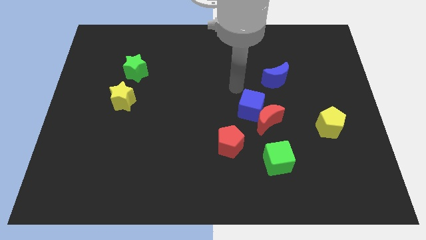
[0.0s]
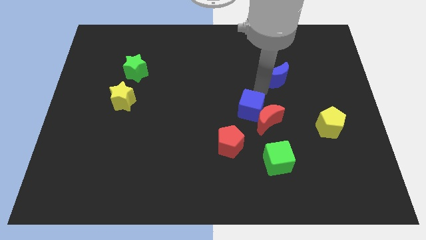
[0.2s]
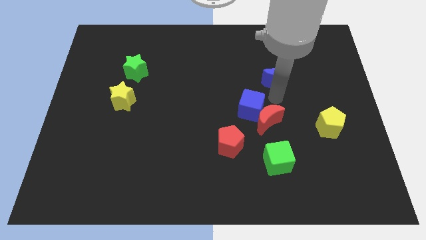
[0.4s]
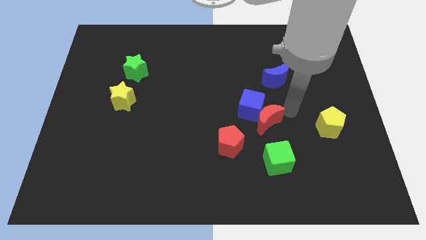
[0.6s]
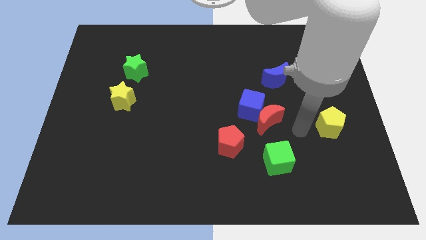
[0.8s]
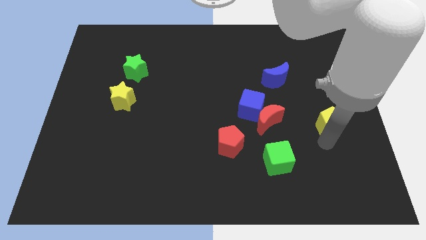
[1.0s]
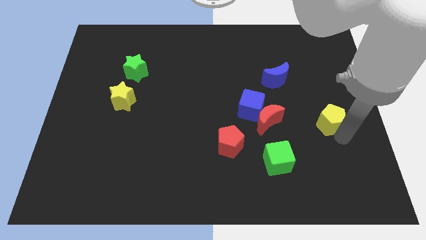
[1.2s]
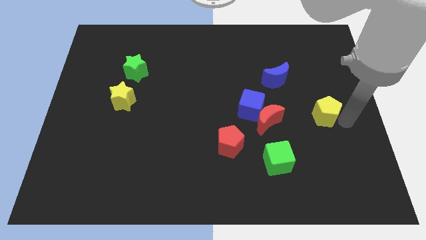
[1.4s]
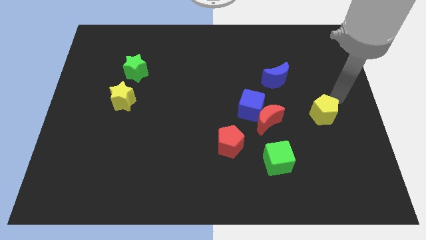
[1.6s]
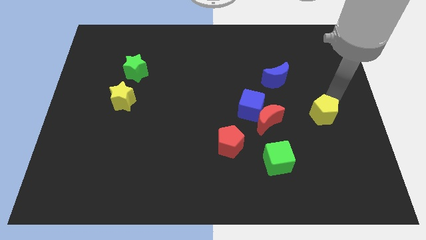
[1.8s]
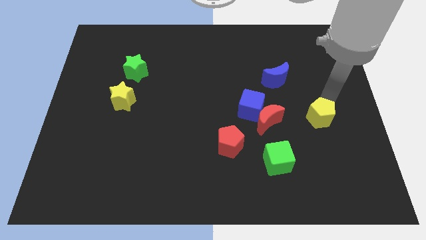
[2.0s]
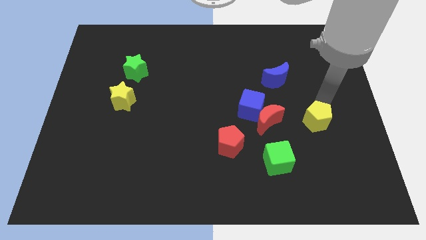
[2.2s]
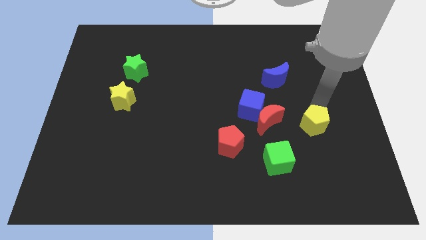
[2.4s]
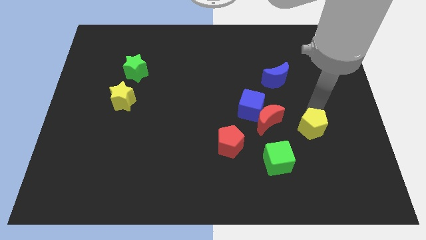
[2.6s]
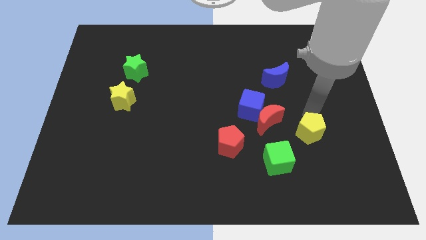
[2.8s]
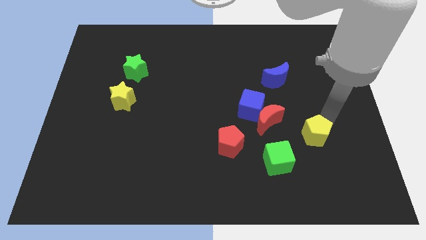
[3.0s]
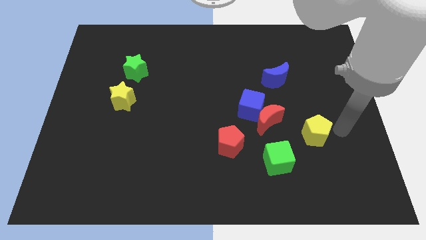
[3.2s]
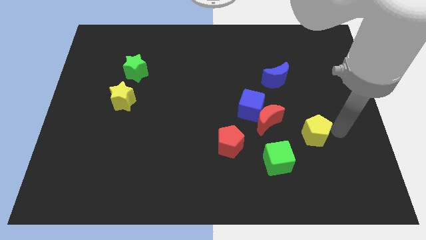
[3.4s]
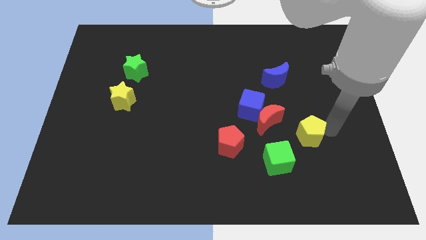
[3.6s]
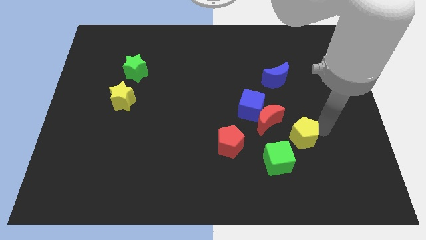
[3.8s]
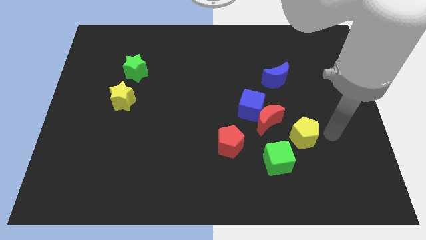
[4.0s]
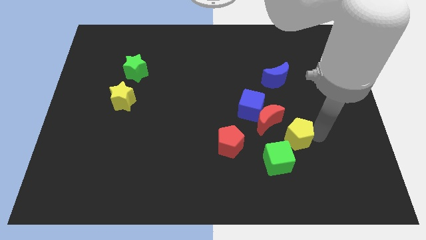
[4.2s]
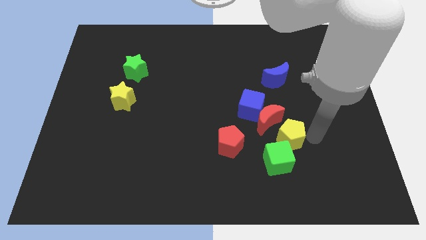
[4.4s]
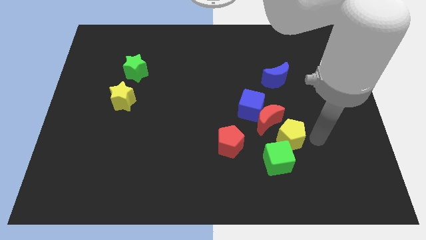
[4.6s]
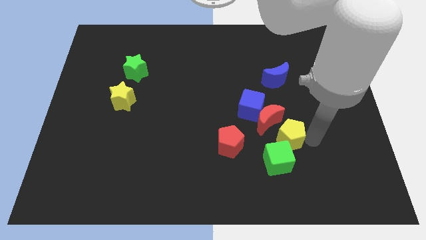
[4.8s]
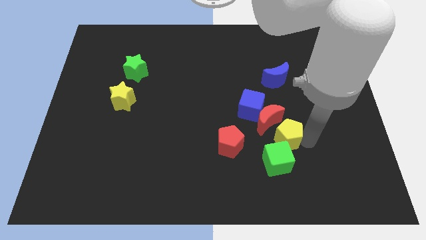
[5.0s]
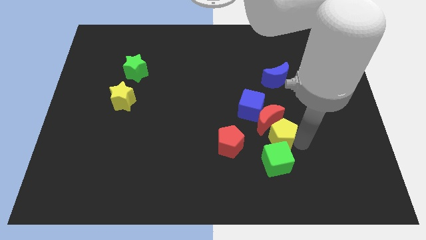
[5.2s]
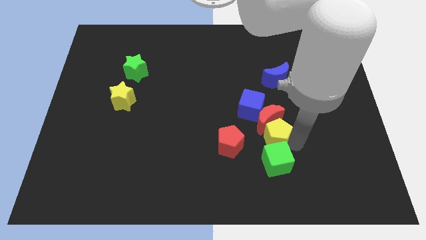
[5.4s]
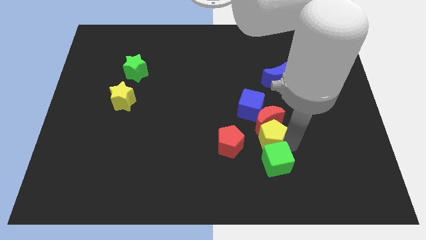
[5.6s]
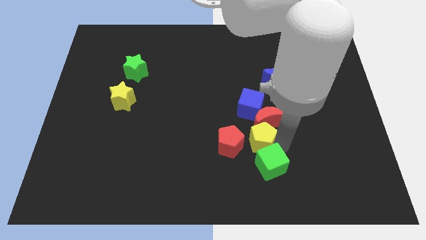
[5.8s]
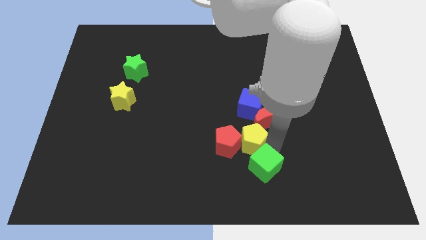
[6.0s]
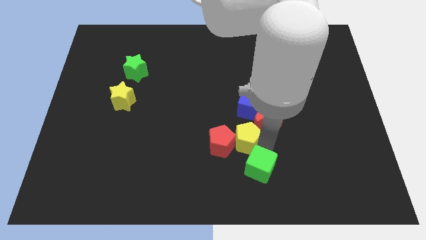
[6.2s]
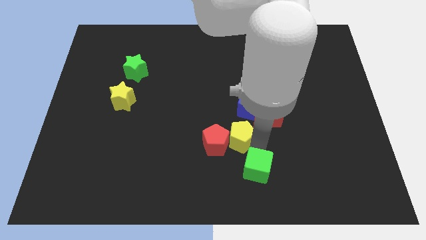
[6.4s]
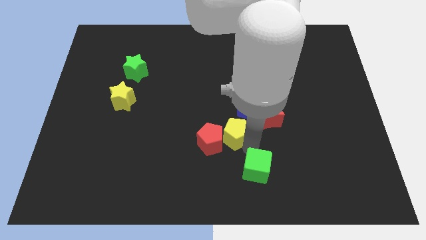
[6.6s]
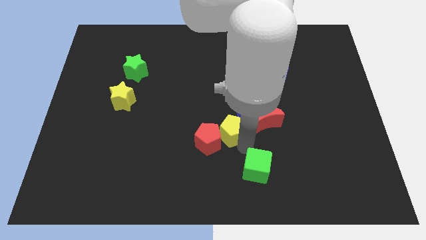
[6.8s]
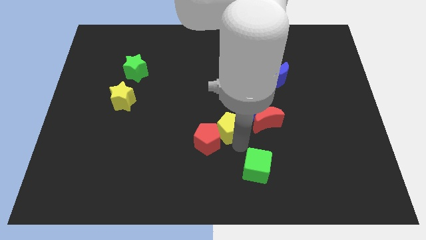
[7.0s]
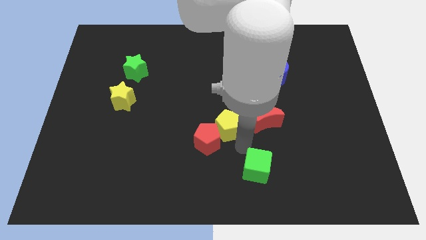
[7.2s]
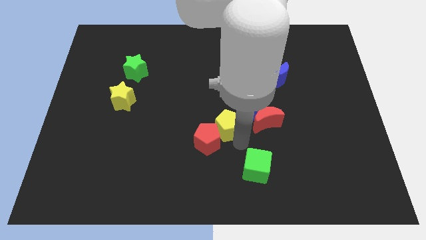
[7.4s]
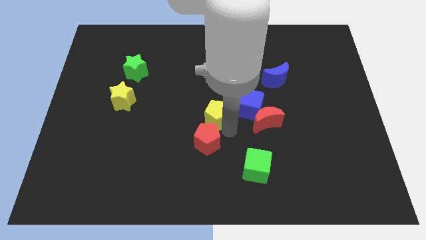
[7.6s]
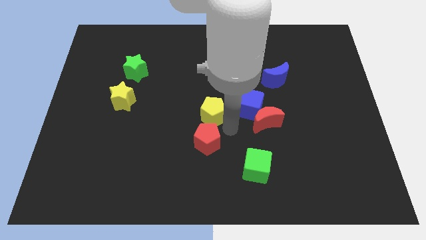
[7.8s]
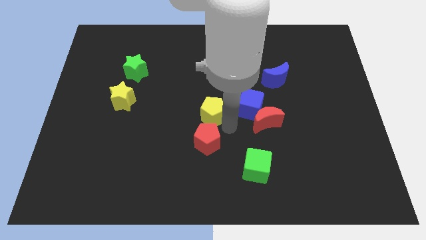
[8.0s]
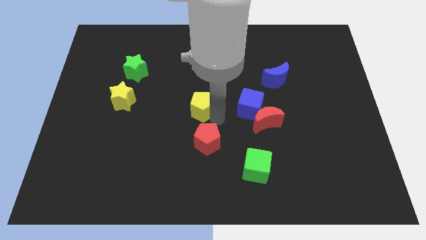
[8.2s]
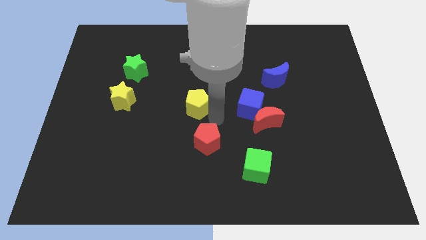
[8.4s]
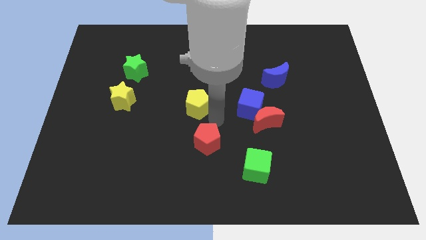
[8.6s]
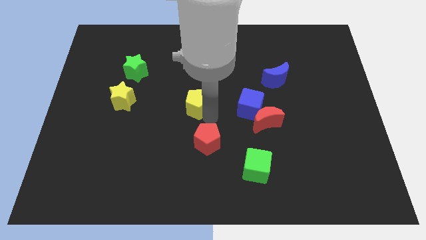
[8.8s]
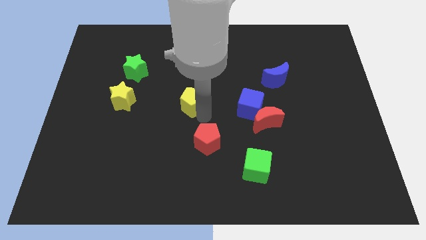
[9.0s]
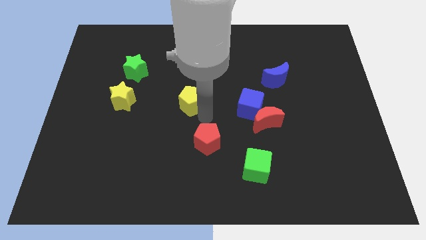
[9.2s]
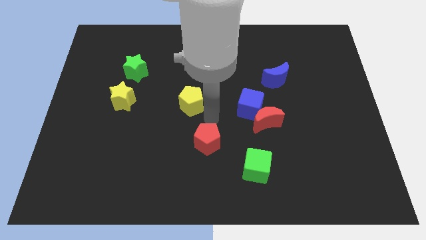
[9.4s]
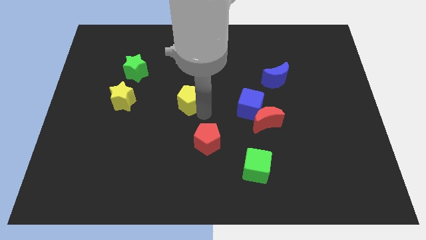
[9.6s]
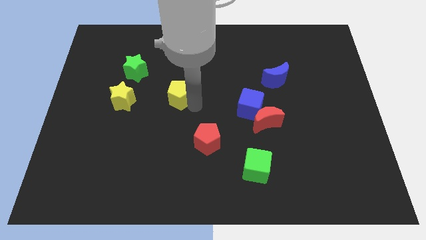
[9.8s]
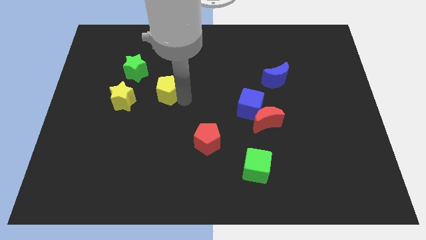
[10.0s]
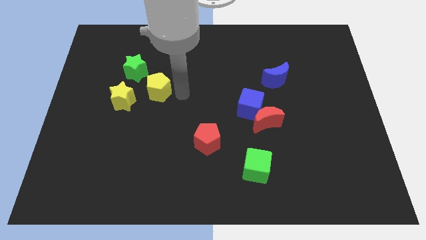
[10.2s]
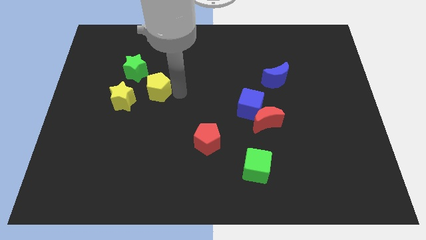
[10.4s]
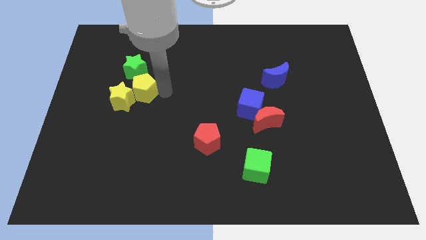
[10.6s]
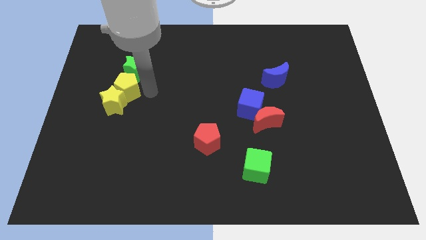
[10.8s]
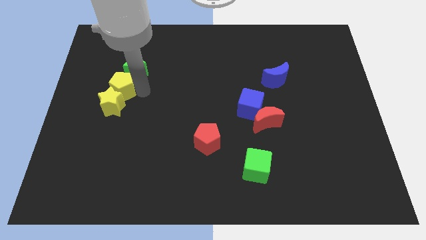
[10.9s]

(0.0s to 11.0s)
move the yellow pentagon to the top left of the yellow star

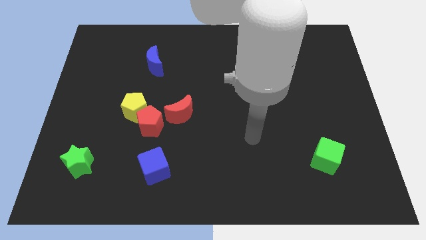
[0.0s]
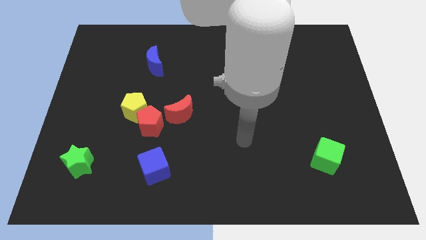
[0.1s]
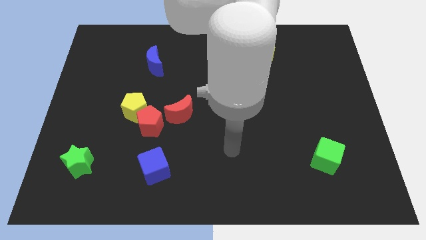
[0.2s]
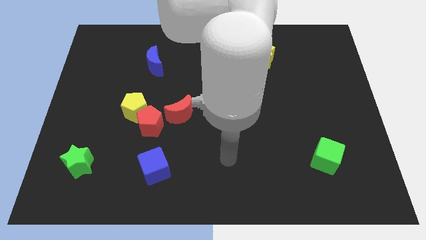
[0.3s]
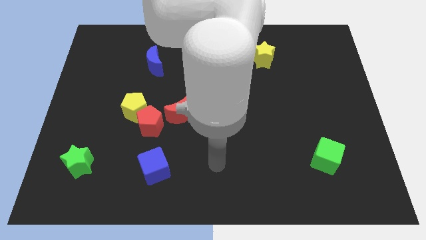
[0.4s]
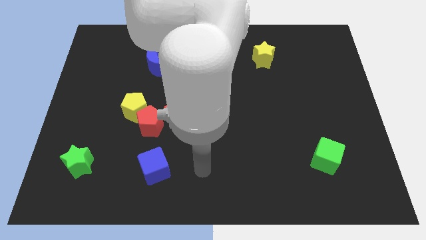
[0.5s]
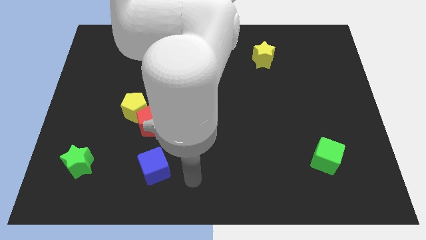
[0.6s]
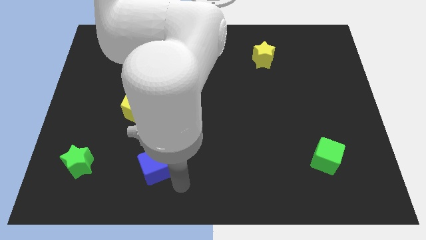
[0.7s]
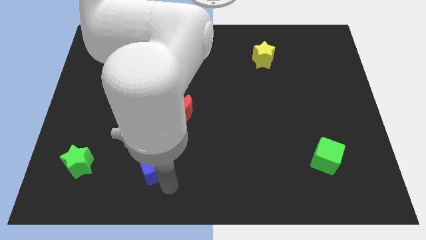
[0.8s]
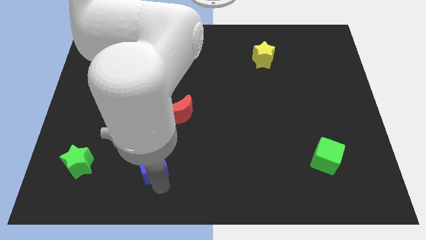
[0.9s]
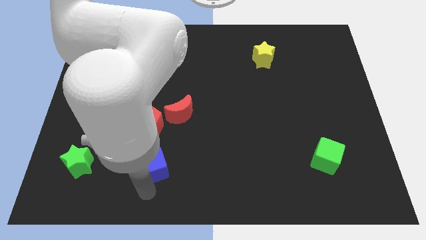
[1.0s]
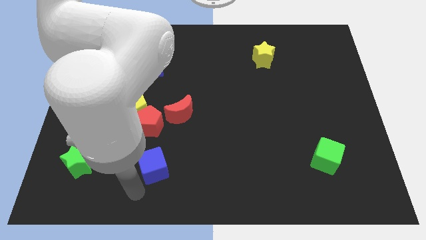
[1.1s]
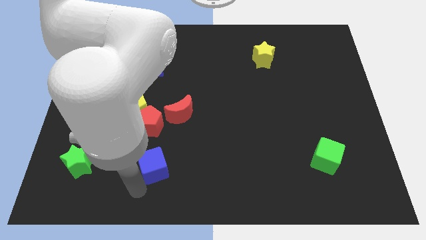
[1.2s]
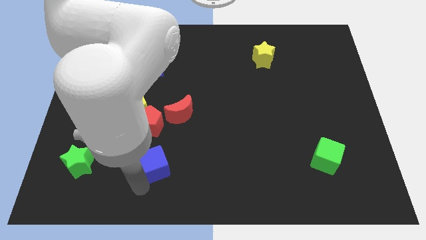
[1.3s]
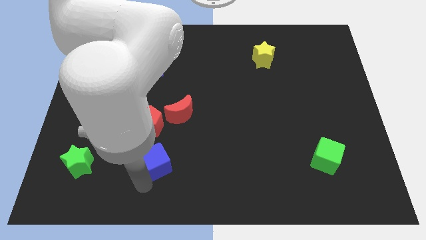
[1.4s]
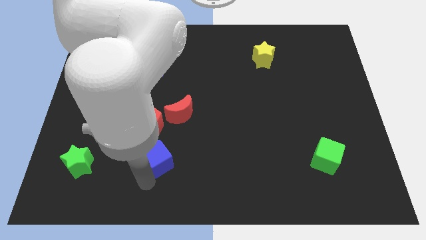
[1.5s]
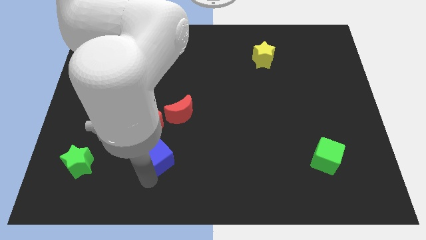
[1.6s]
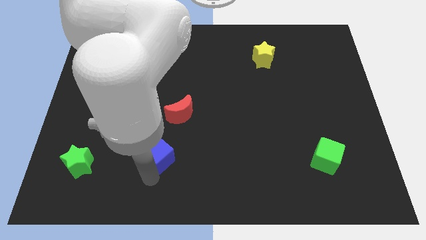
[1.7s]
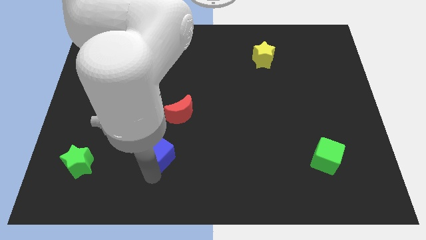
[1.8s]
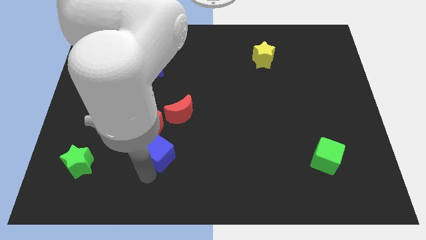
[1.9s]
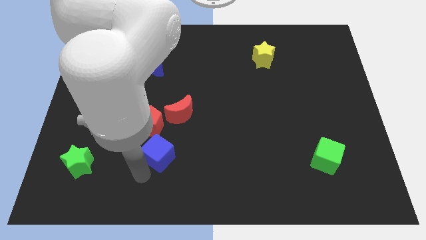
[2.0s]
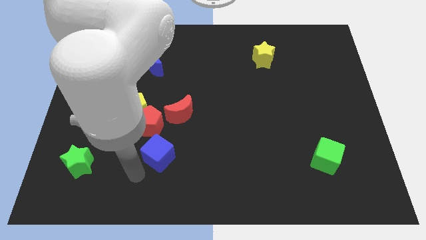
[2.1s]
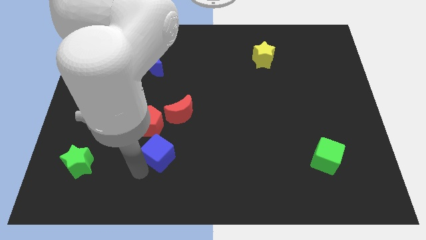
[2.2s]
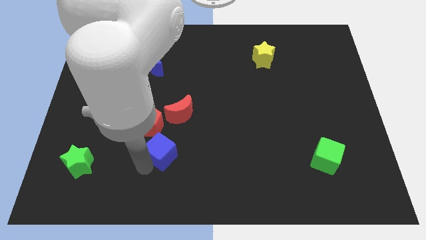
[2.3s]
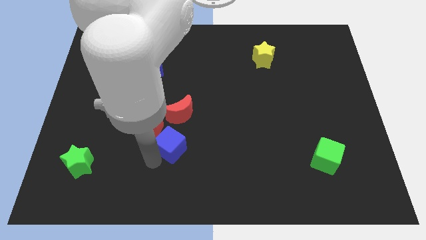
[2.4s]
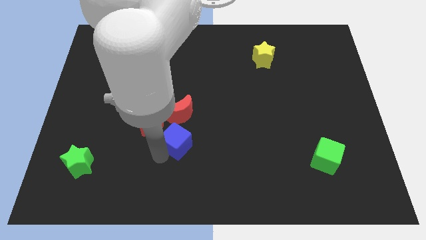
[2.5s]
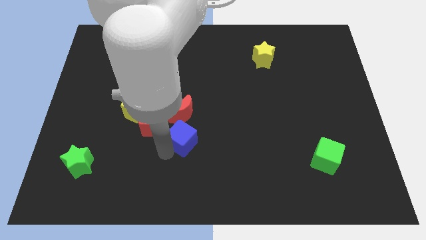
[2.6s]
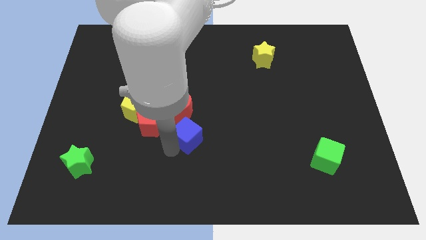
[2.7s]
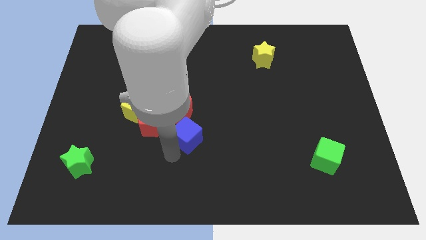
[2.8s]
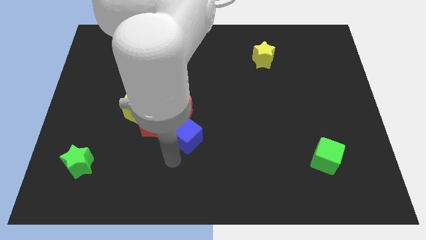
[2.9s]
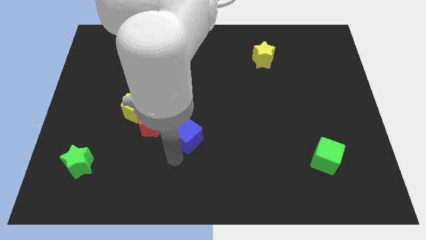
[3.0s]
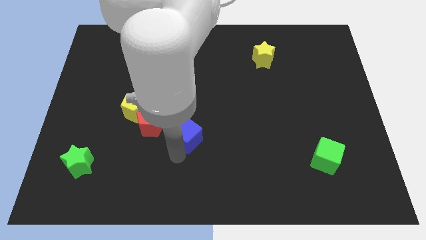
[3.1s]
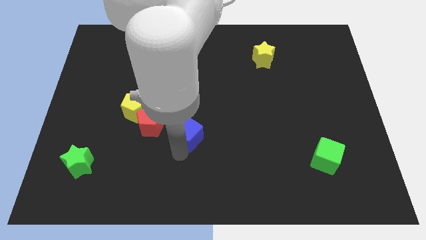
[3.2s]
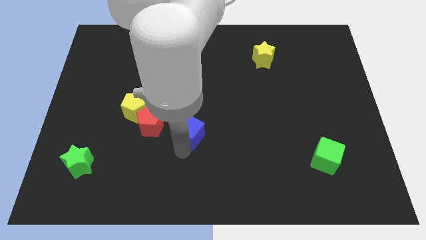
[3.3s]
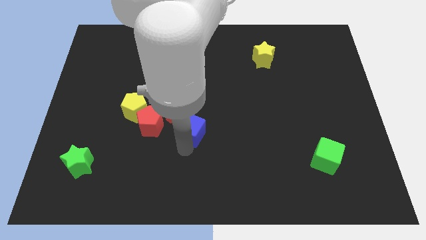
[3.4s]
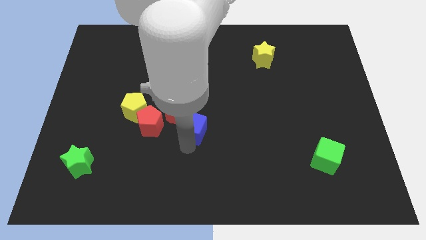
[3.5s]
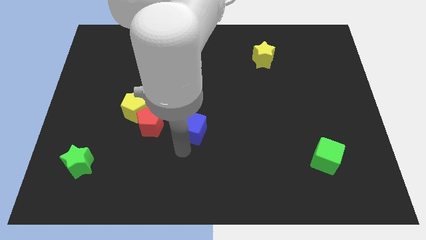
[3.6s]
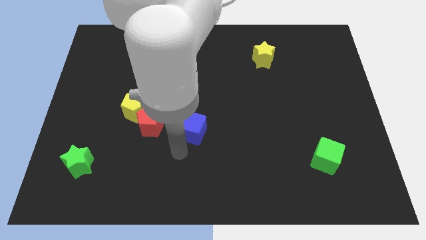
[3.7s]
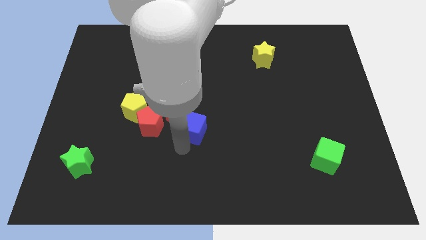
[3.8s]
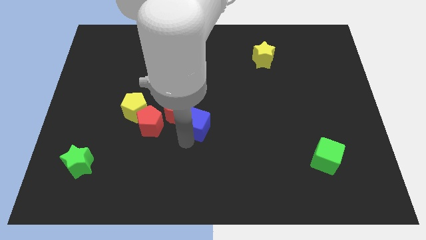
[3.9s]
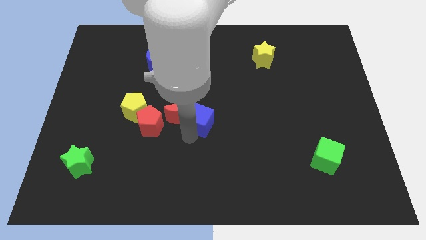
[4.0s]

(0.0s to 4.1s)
push the blue cube to the right of the yellow pentagon
